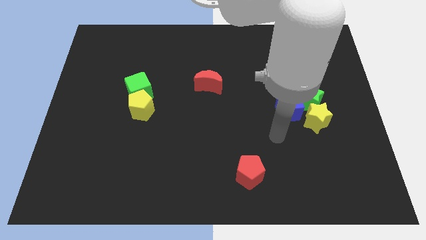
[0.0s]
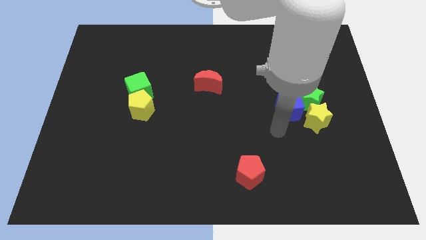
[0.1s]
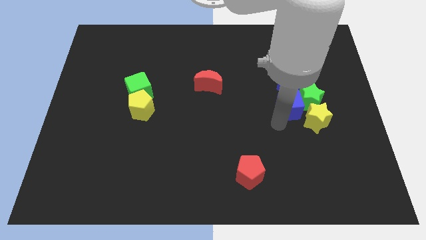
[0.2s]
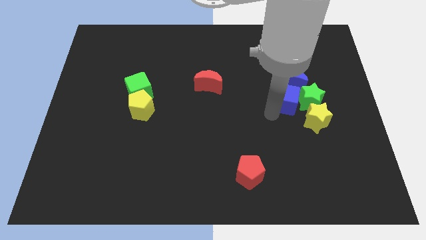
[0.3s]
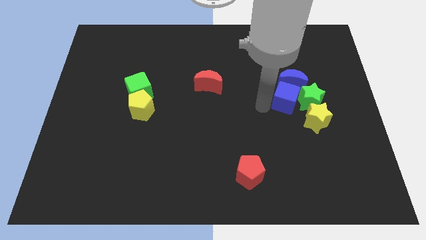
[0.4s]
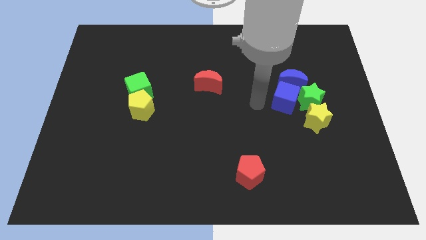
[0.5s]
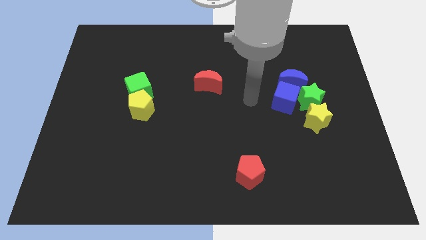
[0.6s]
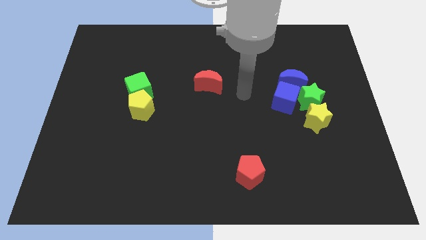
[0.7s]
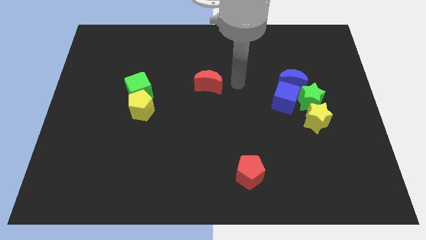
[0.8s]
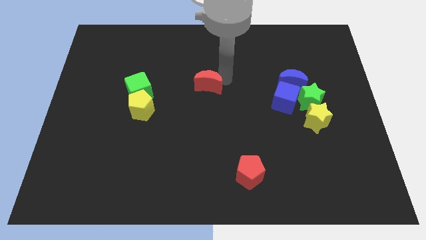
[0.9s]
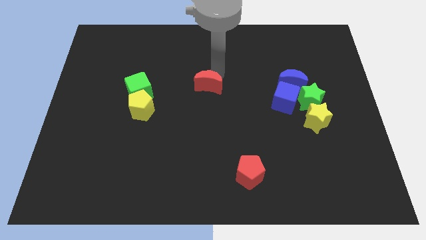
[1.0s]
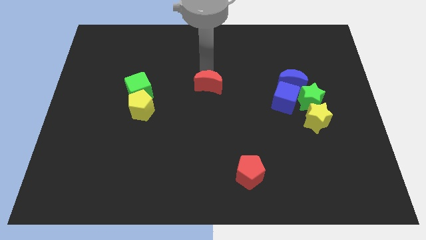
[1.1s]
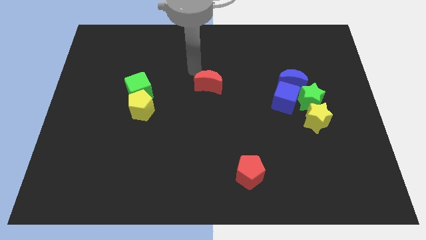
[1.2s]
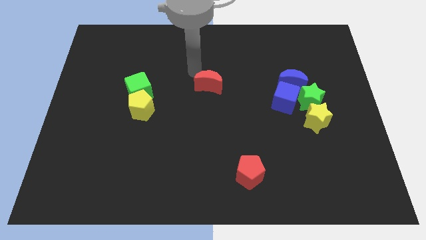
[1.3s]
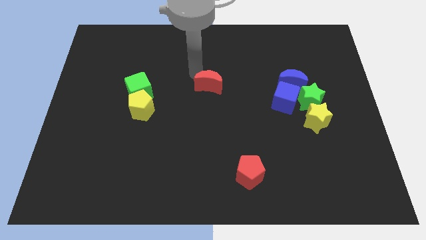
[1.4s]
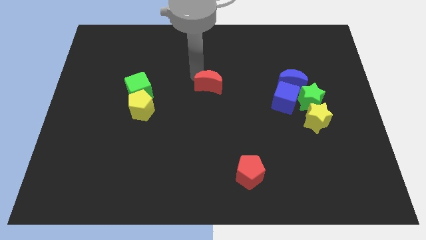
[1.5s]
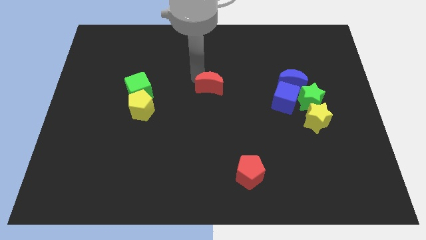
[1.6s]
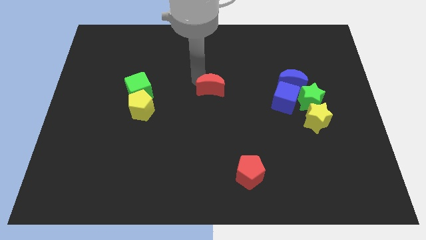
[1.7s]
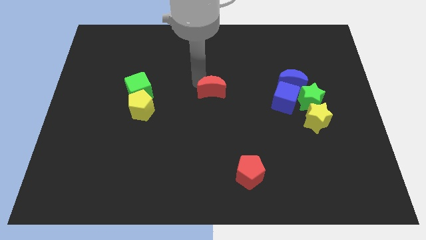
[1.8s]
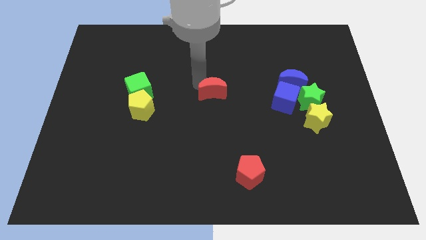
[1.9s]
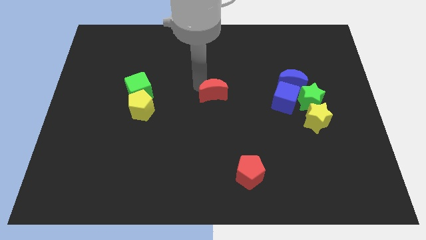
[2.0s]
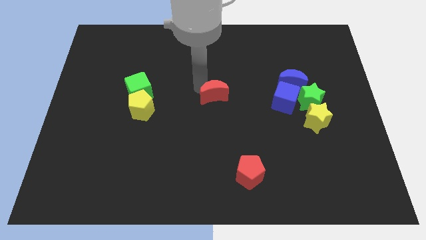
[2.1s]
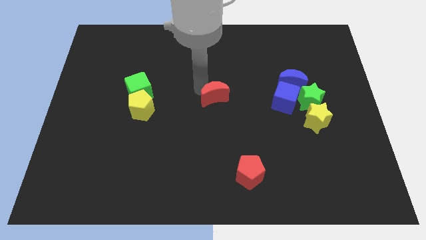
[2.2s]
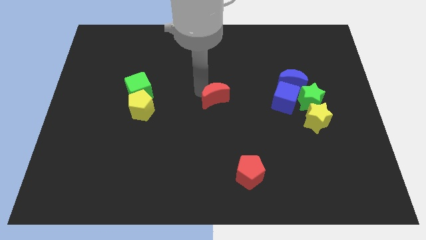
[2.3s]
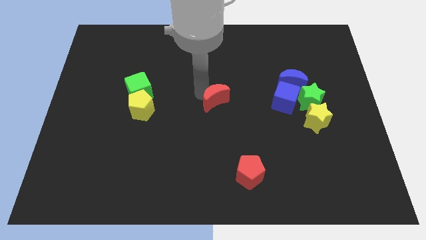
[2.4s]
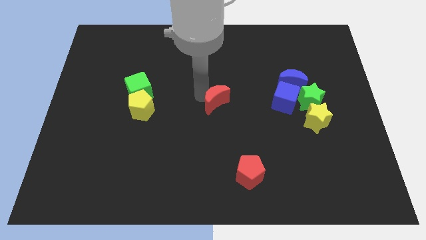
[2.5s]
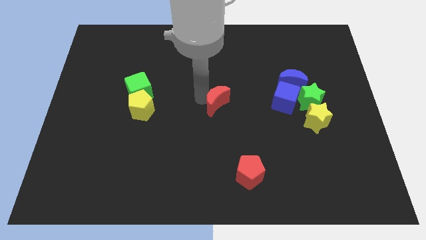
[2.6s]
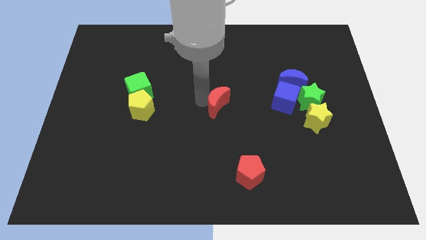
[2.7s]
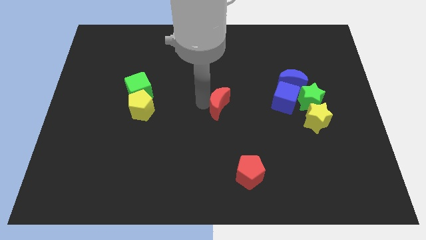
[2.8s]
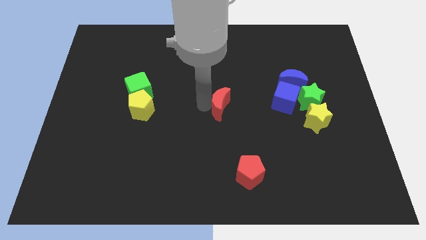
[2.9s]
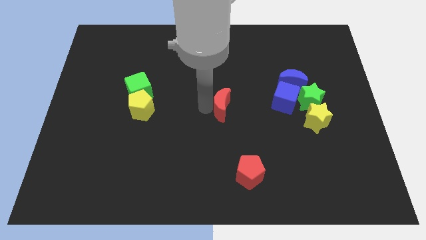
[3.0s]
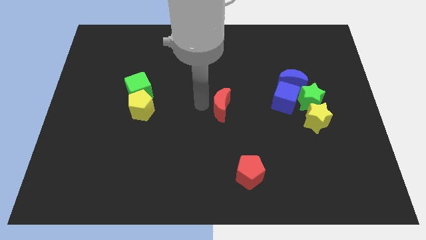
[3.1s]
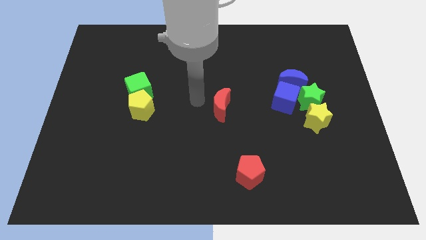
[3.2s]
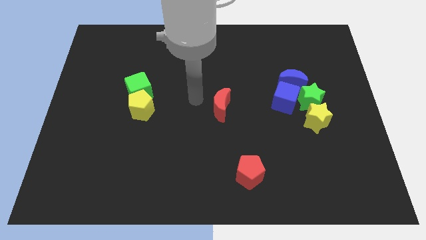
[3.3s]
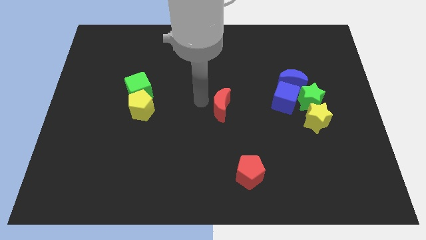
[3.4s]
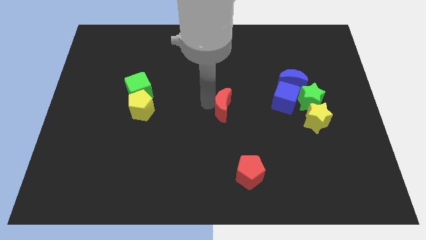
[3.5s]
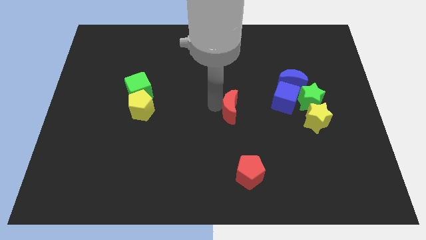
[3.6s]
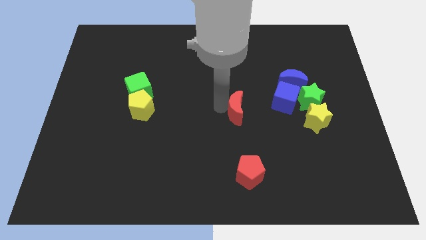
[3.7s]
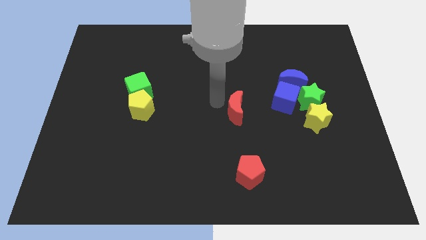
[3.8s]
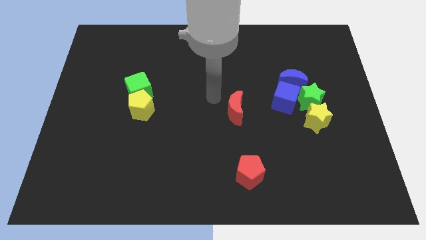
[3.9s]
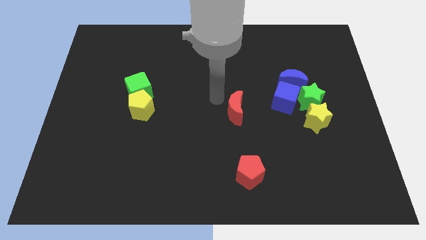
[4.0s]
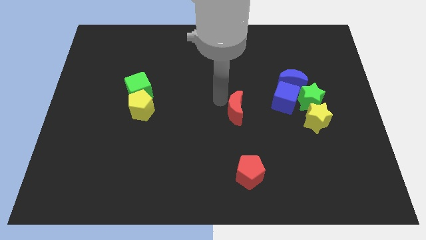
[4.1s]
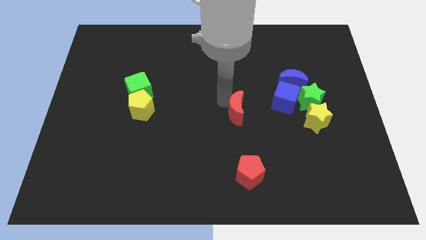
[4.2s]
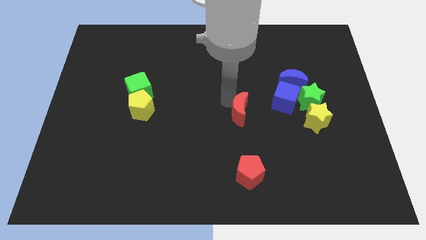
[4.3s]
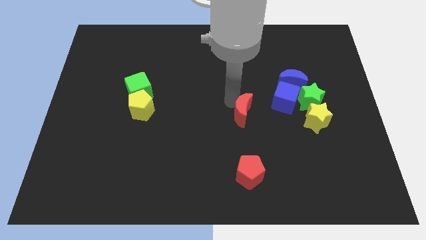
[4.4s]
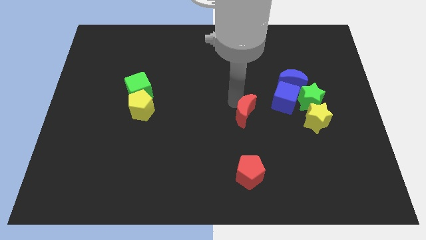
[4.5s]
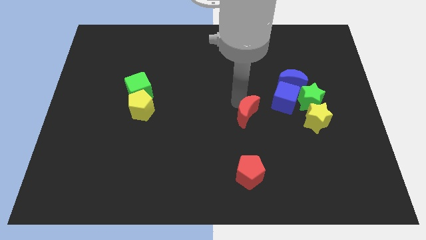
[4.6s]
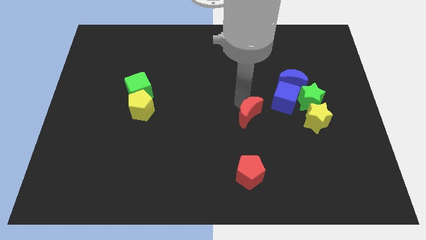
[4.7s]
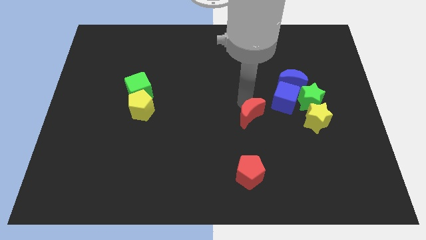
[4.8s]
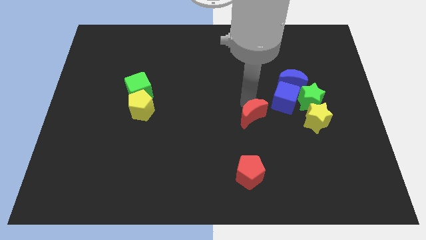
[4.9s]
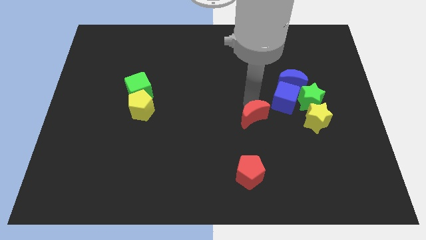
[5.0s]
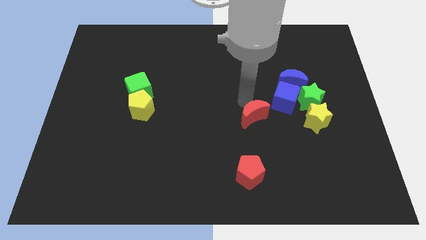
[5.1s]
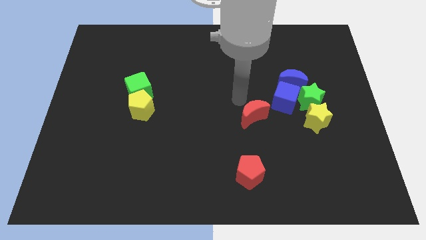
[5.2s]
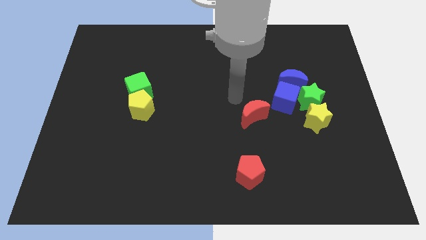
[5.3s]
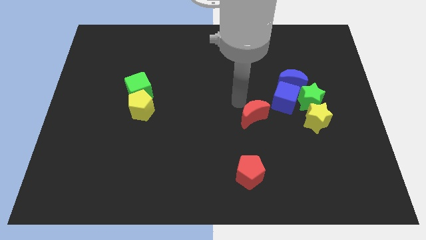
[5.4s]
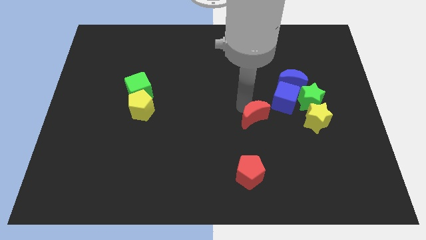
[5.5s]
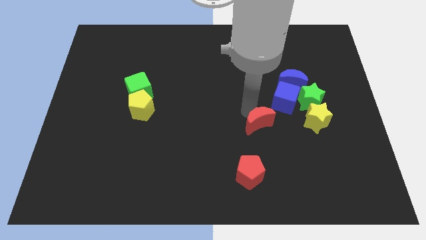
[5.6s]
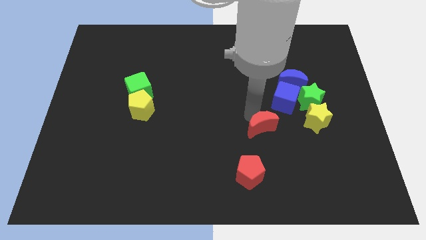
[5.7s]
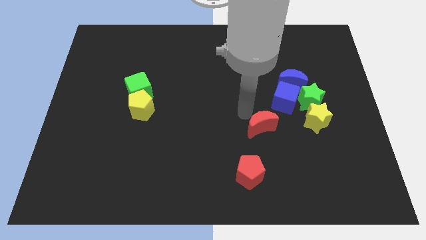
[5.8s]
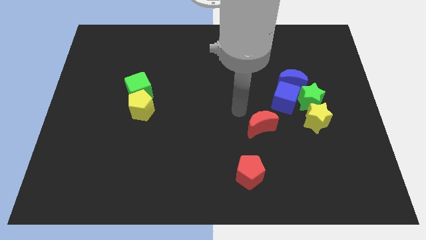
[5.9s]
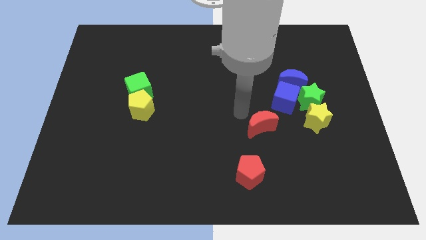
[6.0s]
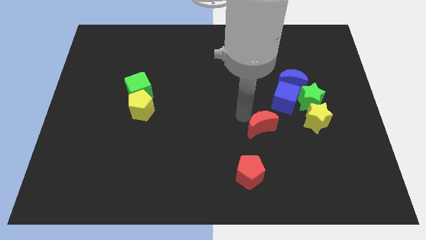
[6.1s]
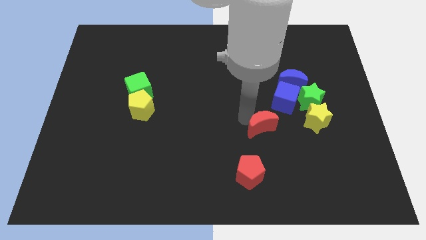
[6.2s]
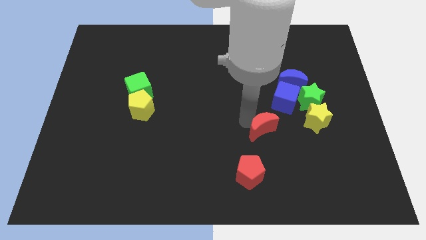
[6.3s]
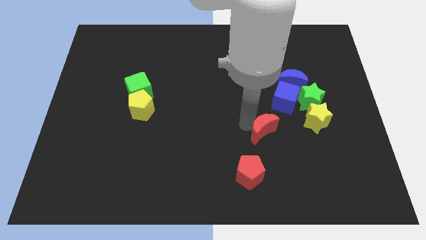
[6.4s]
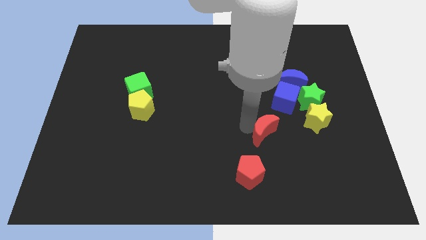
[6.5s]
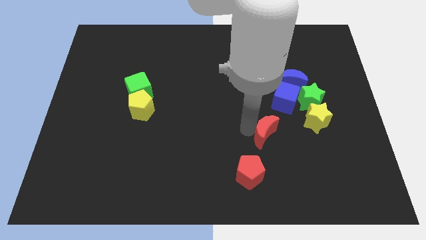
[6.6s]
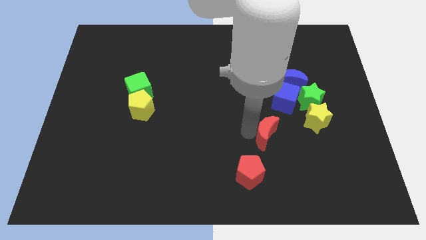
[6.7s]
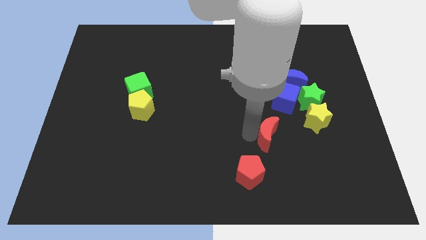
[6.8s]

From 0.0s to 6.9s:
move the red moon downwards and to the right

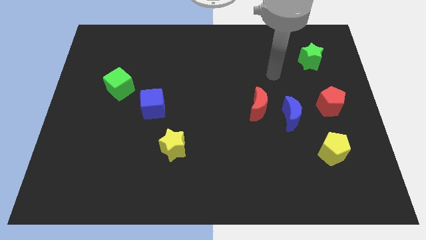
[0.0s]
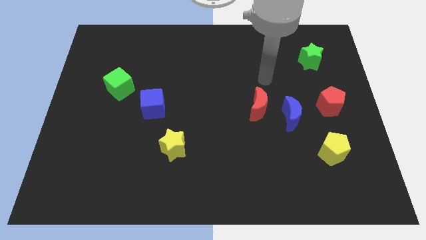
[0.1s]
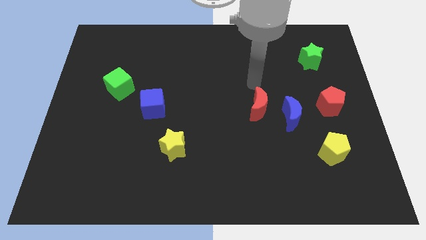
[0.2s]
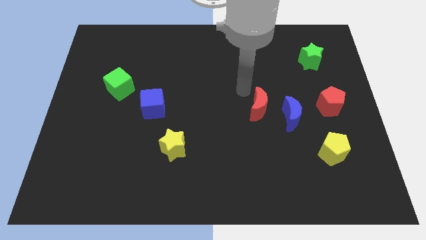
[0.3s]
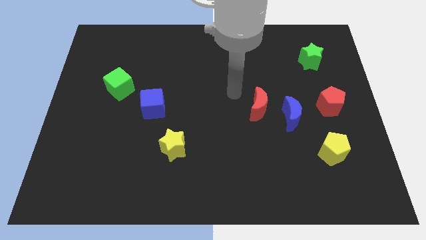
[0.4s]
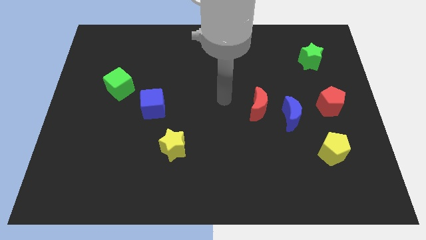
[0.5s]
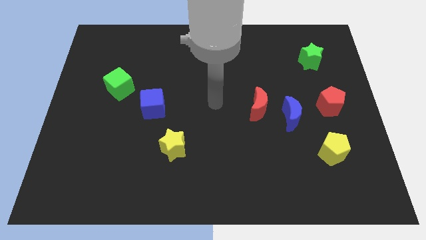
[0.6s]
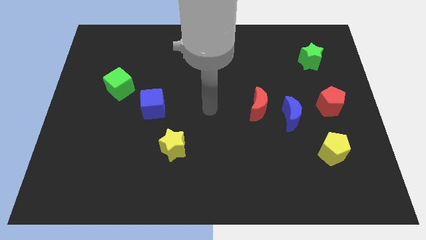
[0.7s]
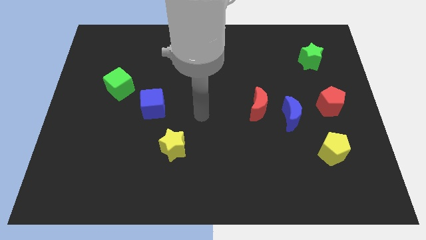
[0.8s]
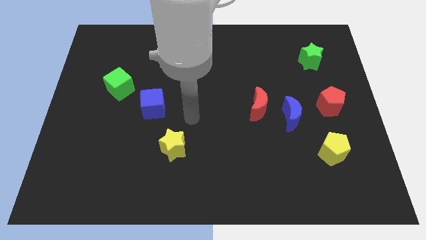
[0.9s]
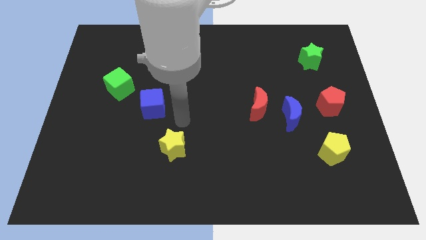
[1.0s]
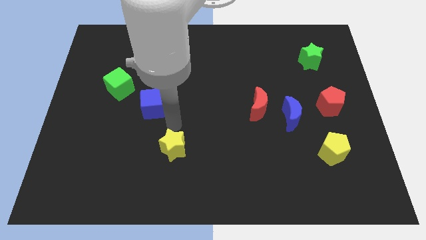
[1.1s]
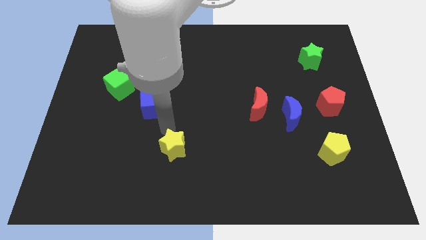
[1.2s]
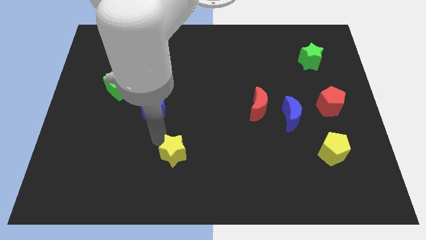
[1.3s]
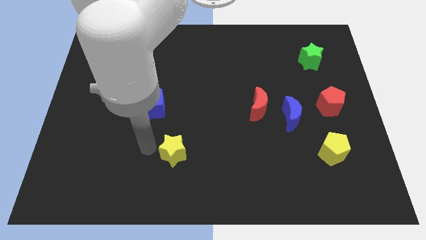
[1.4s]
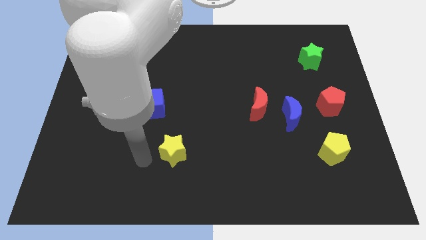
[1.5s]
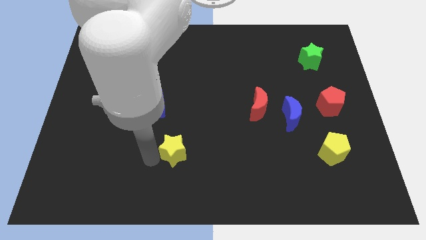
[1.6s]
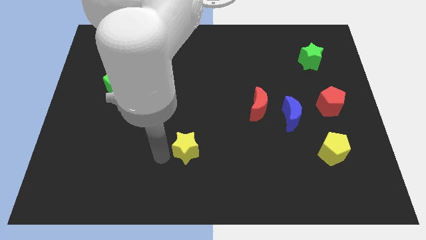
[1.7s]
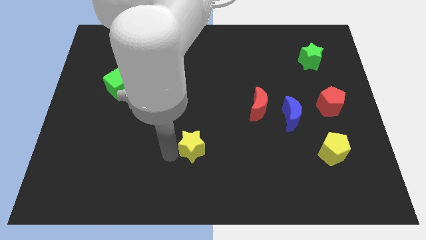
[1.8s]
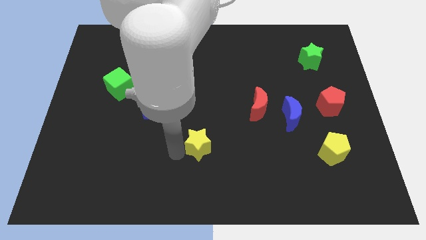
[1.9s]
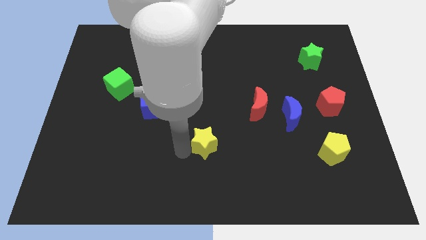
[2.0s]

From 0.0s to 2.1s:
slide the yellow star a little to the right
